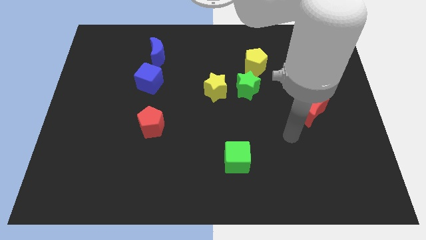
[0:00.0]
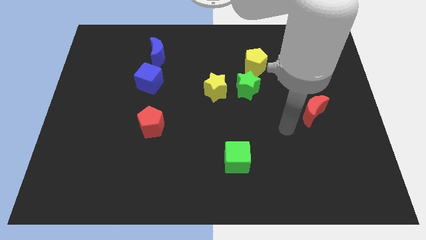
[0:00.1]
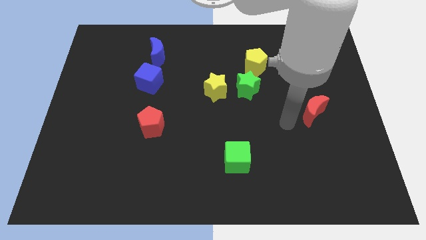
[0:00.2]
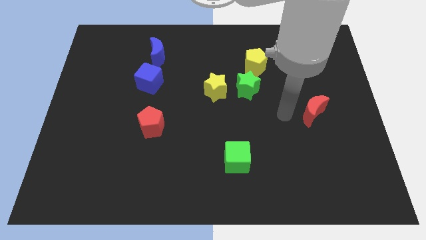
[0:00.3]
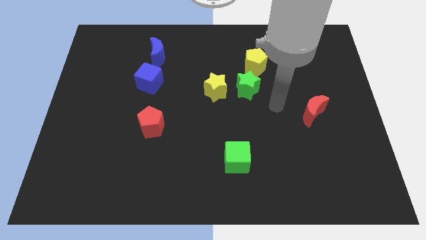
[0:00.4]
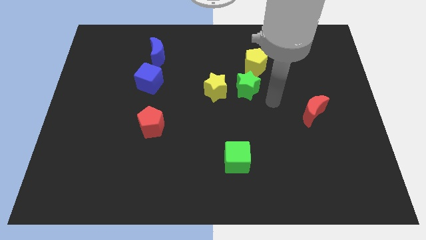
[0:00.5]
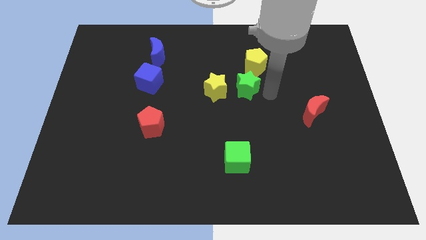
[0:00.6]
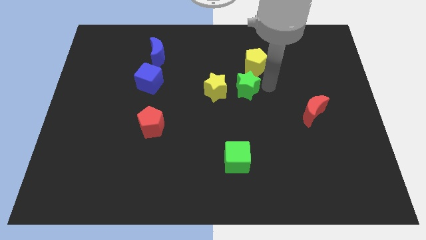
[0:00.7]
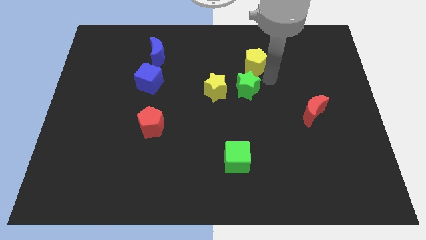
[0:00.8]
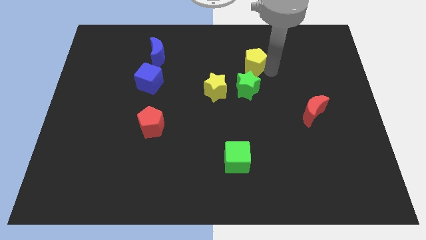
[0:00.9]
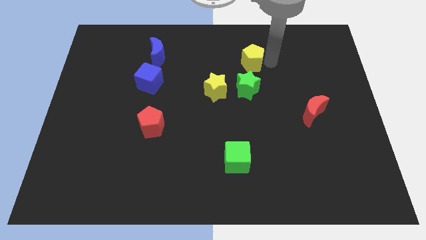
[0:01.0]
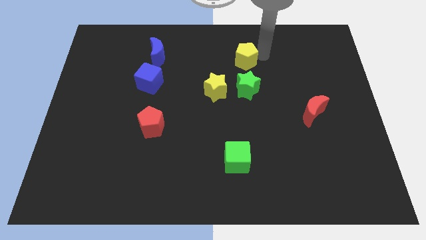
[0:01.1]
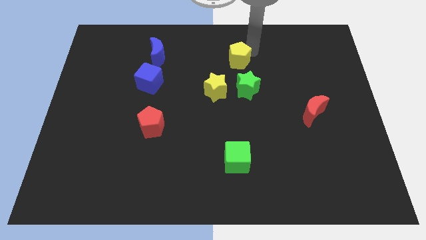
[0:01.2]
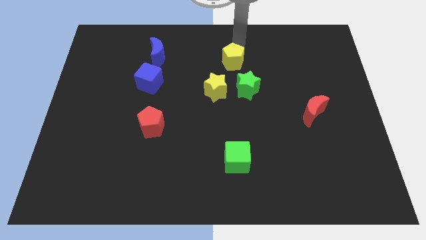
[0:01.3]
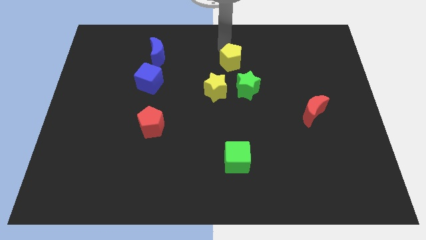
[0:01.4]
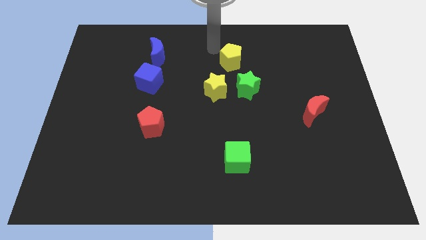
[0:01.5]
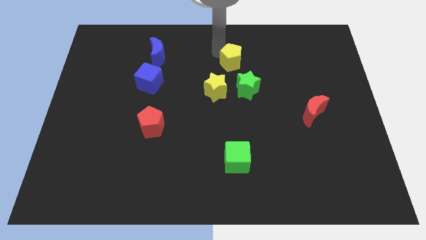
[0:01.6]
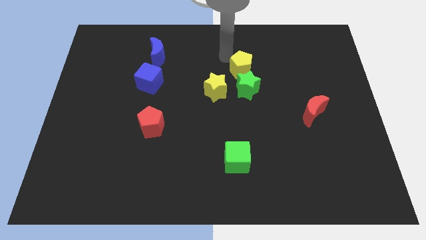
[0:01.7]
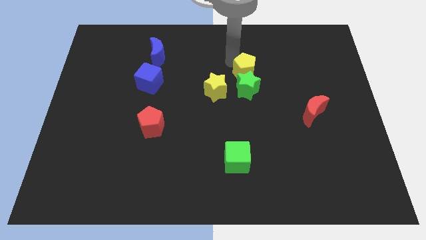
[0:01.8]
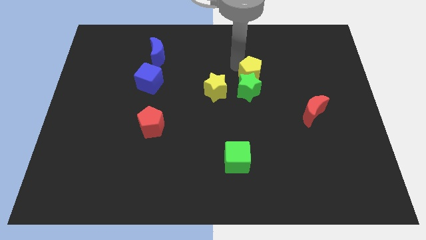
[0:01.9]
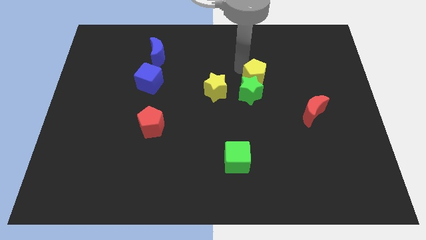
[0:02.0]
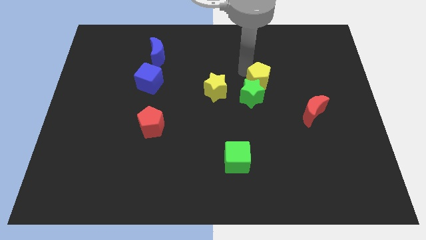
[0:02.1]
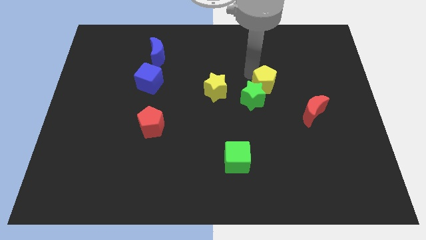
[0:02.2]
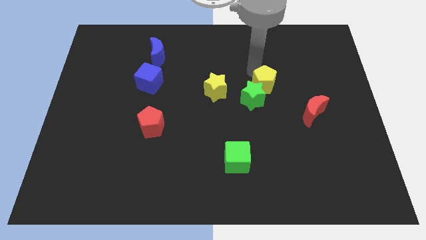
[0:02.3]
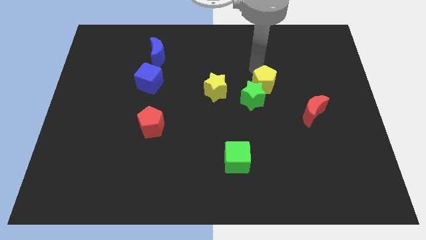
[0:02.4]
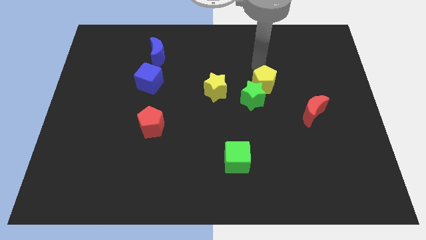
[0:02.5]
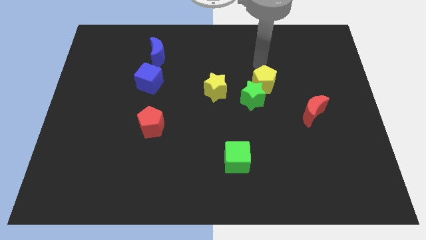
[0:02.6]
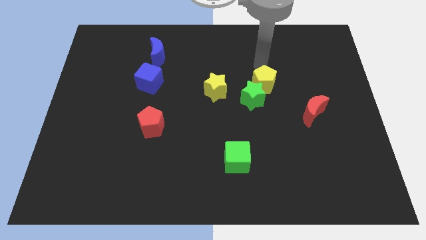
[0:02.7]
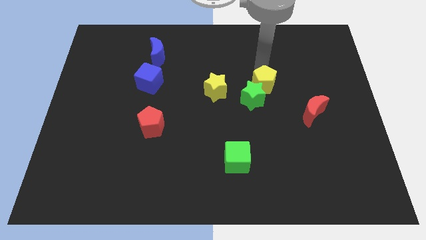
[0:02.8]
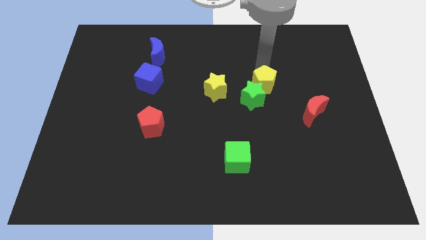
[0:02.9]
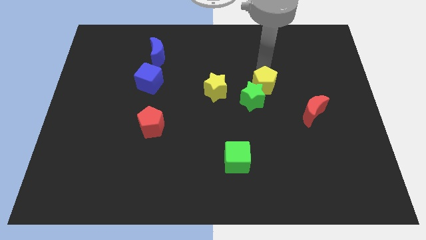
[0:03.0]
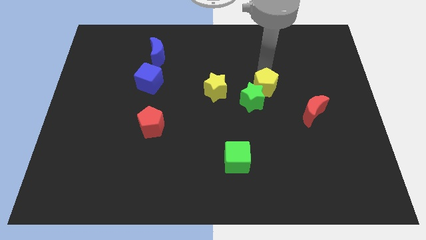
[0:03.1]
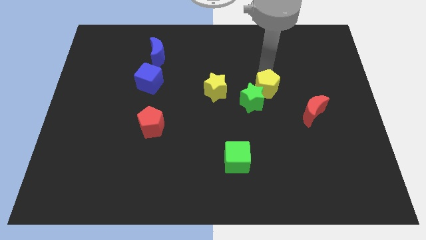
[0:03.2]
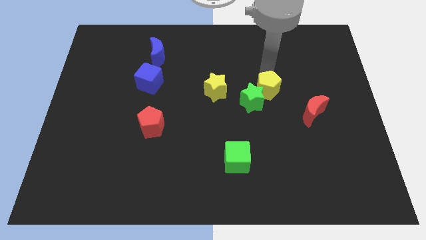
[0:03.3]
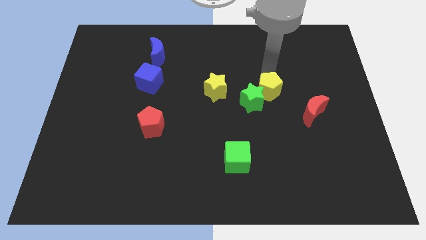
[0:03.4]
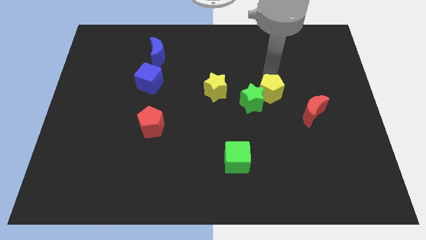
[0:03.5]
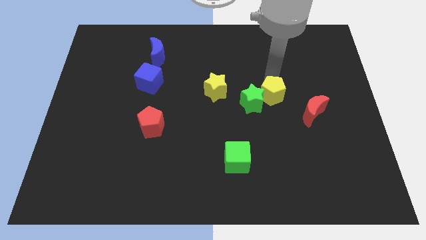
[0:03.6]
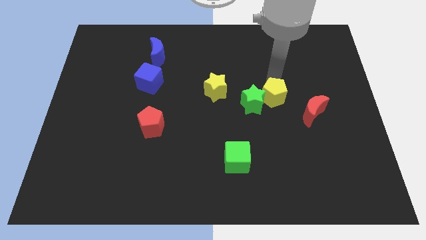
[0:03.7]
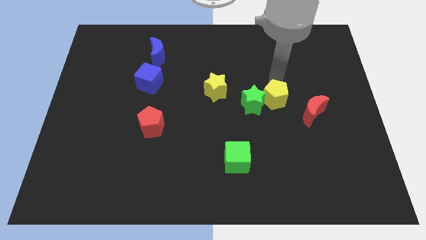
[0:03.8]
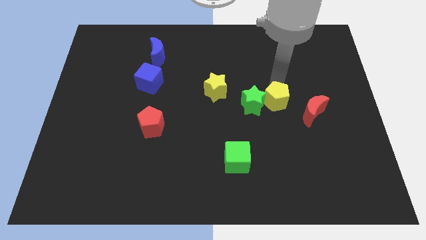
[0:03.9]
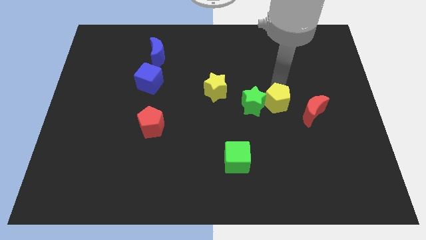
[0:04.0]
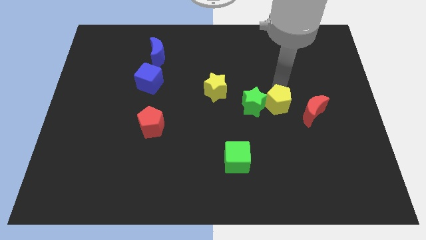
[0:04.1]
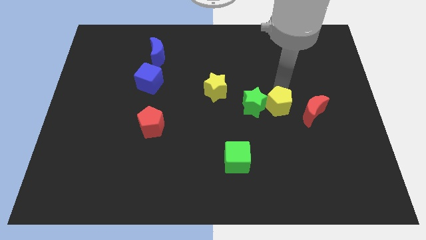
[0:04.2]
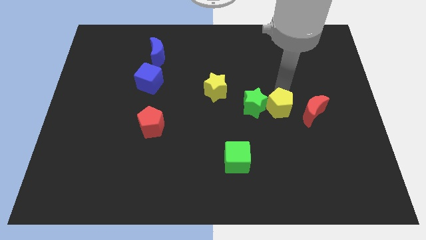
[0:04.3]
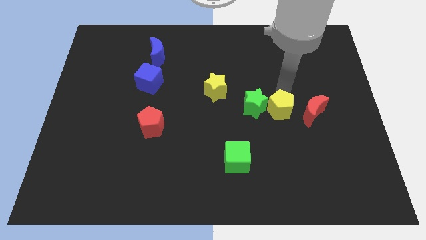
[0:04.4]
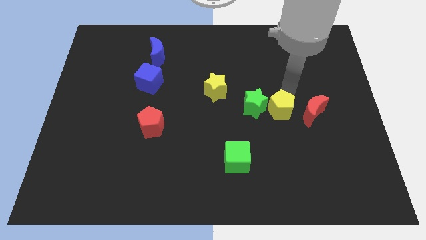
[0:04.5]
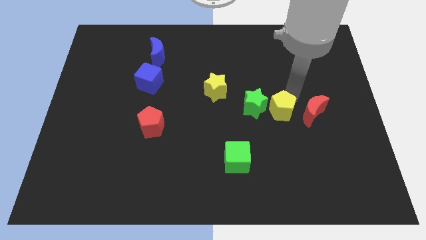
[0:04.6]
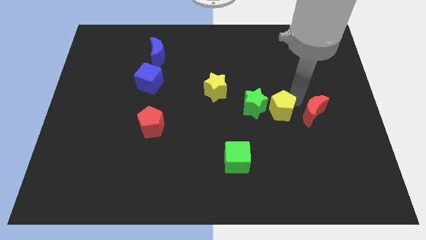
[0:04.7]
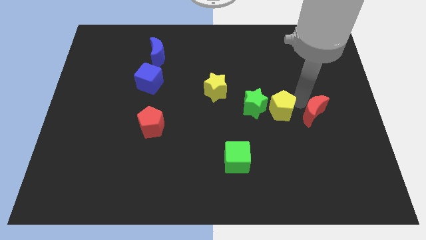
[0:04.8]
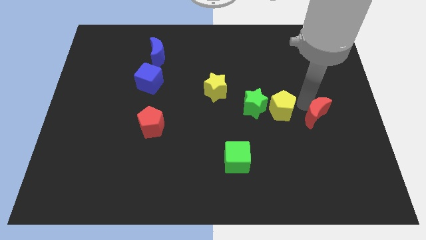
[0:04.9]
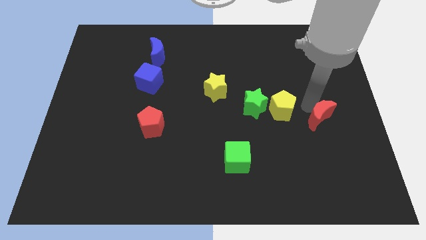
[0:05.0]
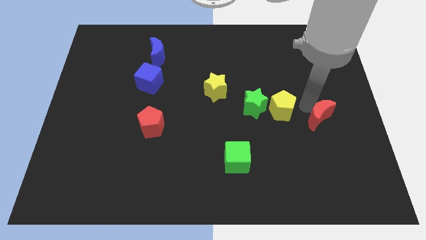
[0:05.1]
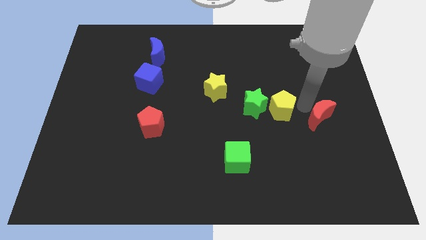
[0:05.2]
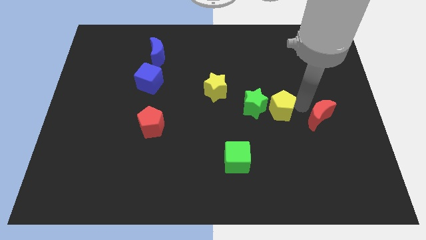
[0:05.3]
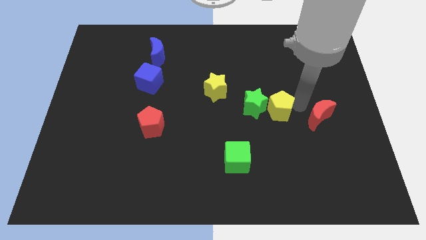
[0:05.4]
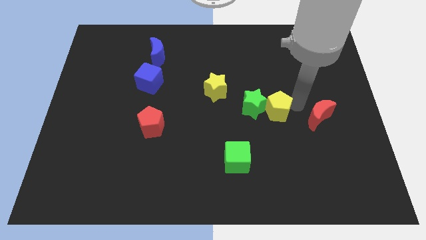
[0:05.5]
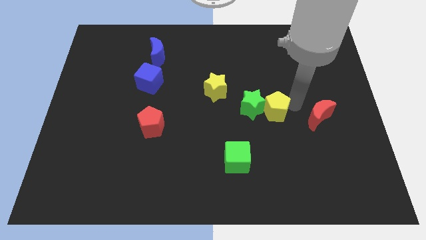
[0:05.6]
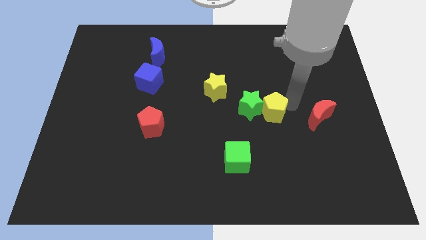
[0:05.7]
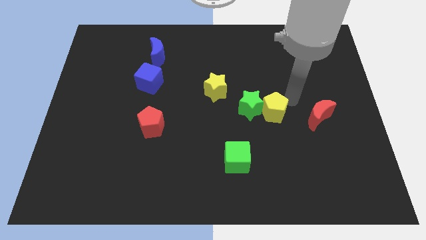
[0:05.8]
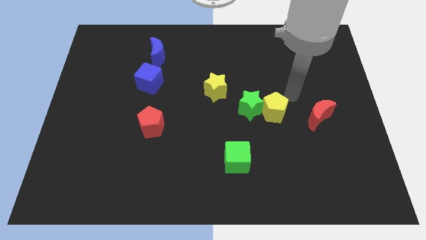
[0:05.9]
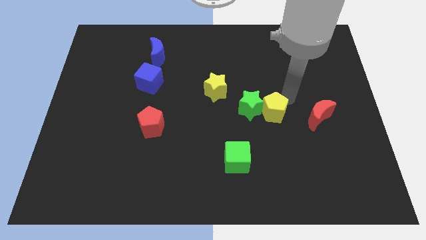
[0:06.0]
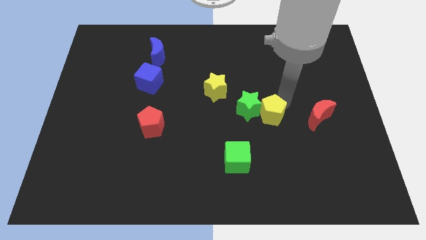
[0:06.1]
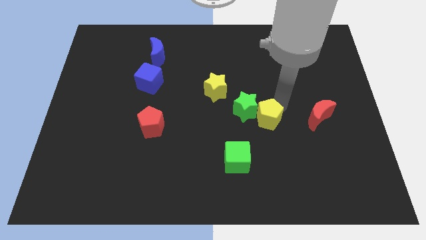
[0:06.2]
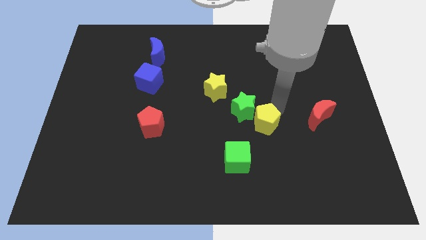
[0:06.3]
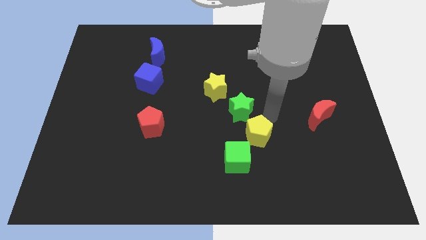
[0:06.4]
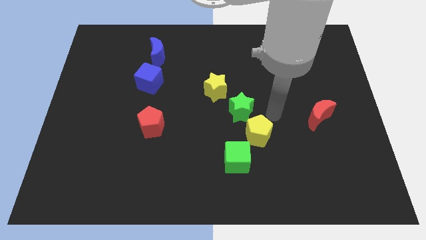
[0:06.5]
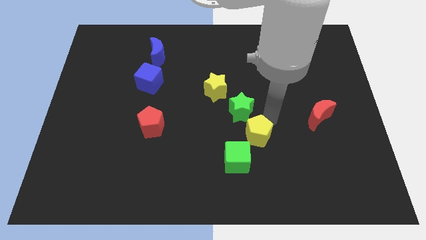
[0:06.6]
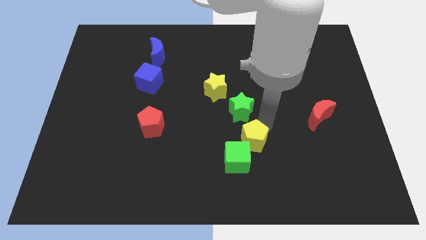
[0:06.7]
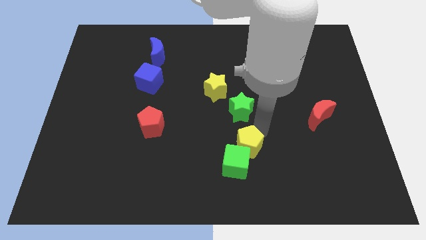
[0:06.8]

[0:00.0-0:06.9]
move the yellow pentagon to the green cube

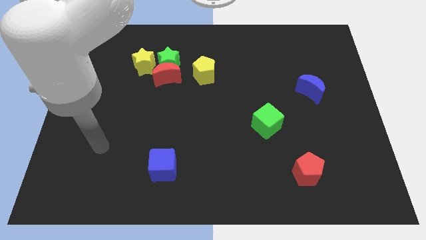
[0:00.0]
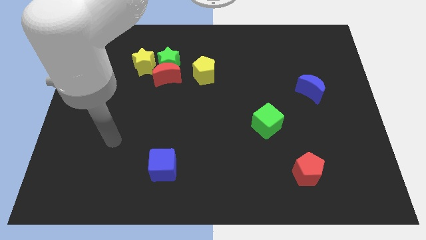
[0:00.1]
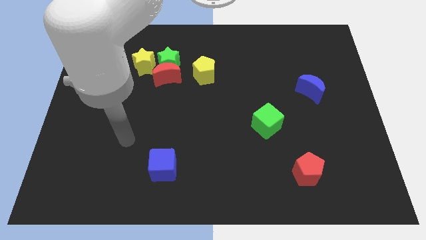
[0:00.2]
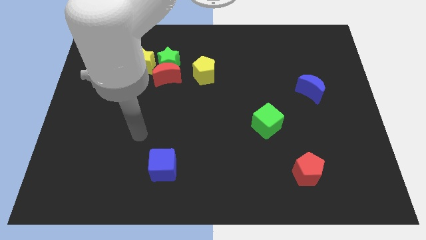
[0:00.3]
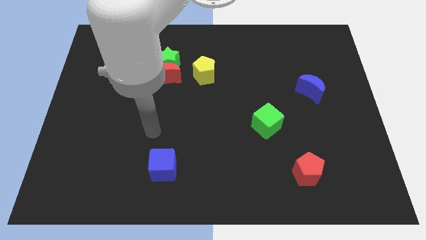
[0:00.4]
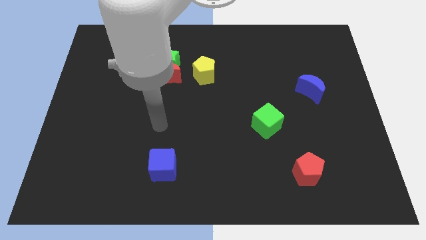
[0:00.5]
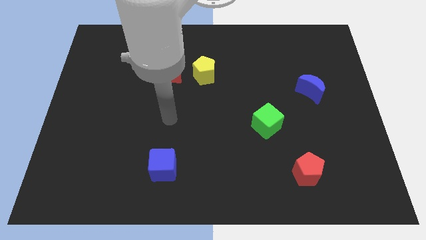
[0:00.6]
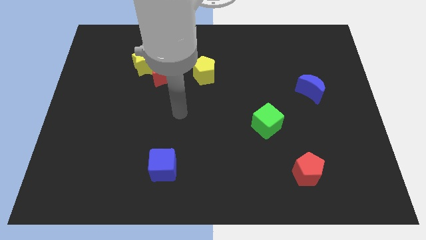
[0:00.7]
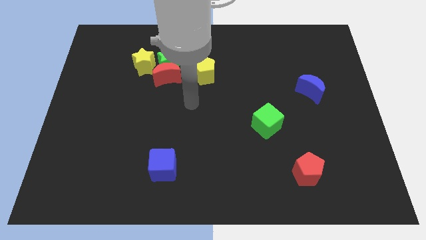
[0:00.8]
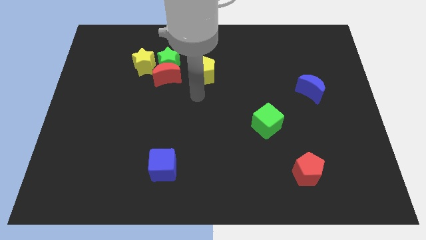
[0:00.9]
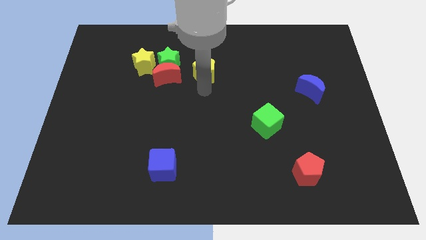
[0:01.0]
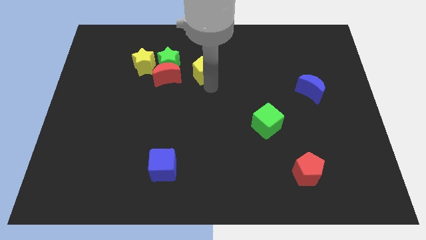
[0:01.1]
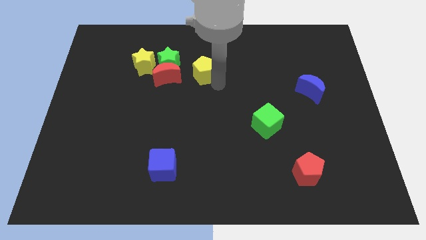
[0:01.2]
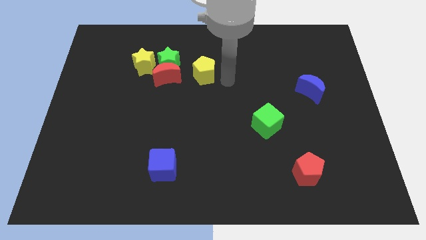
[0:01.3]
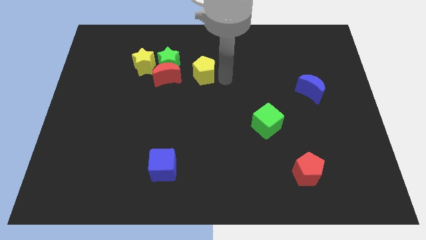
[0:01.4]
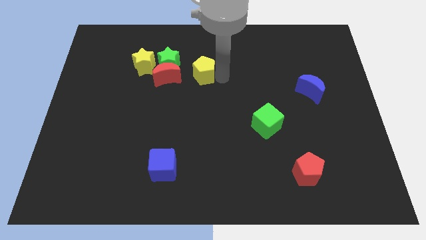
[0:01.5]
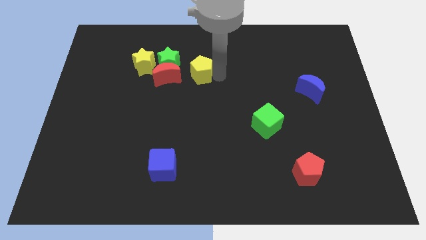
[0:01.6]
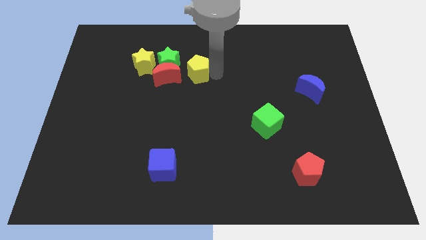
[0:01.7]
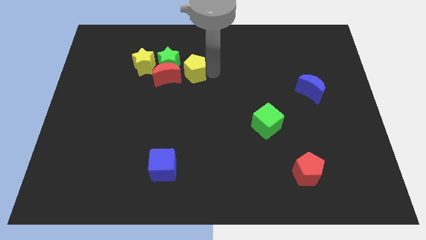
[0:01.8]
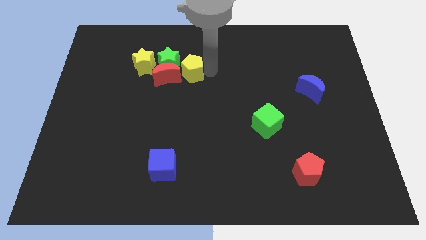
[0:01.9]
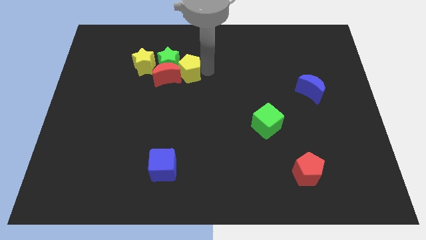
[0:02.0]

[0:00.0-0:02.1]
put the yellow pentagon to the green star
